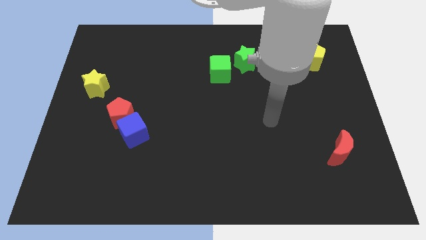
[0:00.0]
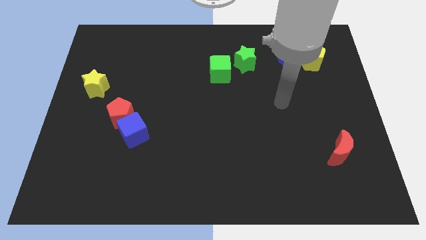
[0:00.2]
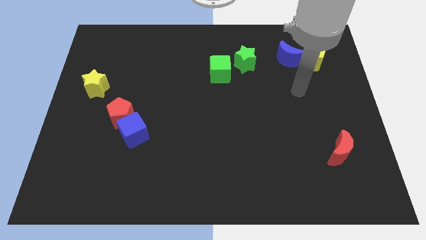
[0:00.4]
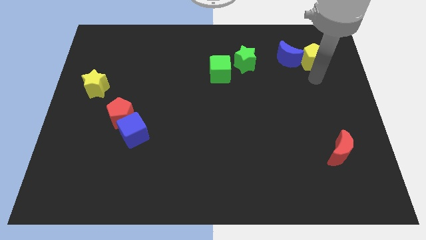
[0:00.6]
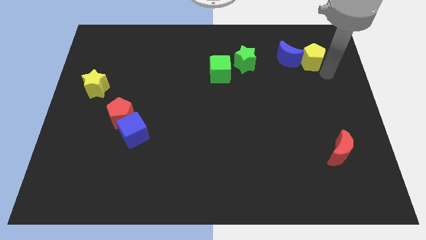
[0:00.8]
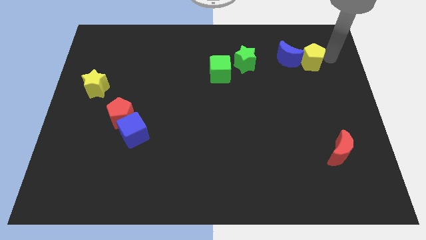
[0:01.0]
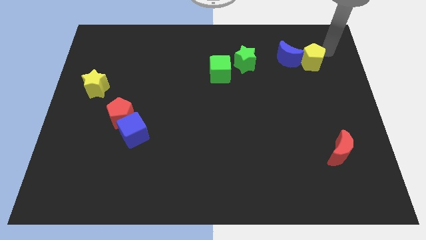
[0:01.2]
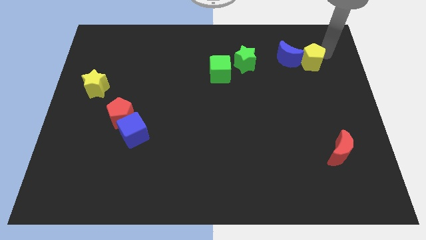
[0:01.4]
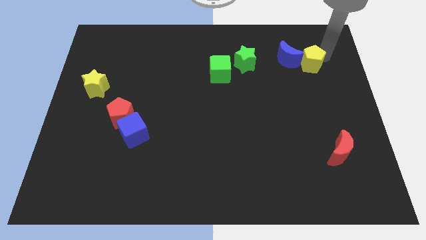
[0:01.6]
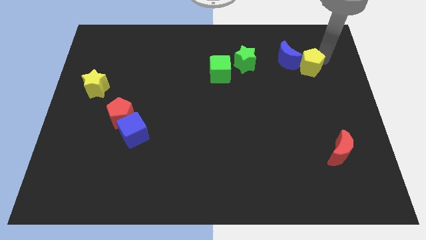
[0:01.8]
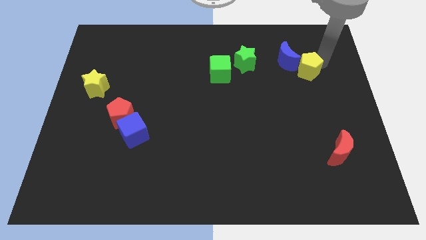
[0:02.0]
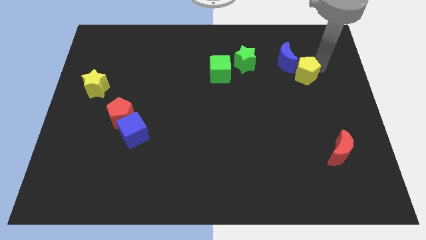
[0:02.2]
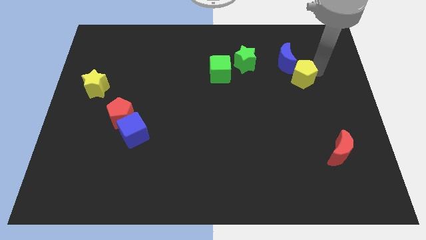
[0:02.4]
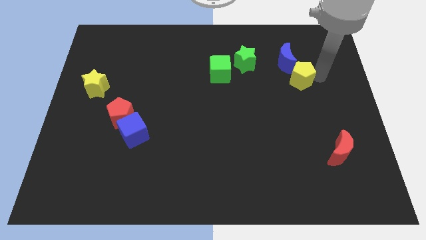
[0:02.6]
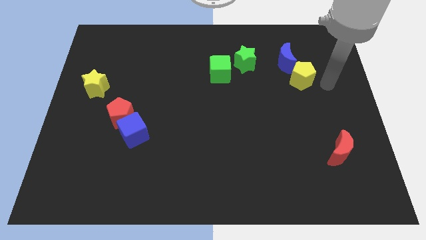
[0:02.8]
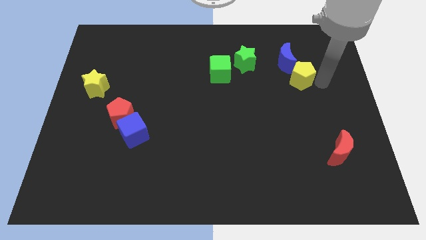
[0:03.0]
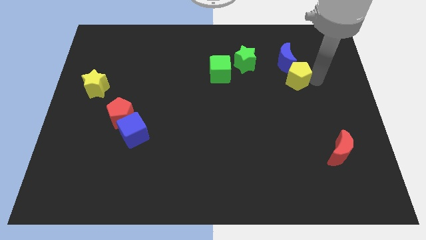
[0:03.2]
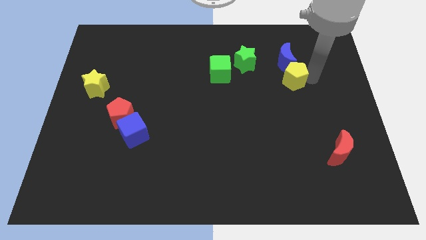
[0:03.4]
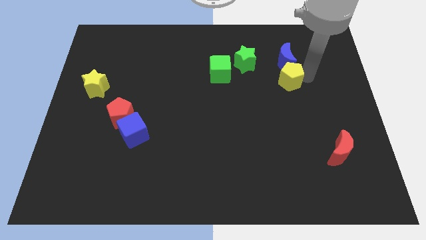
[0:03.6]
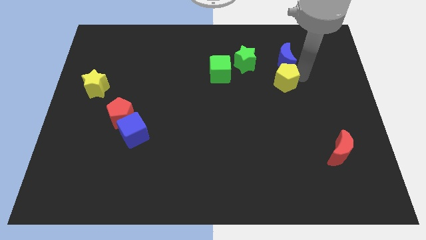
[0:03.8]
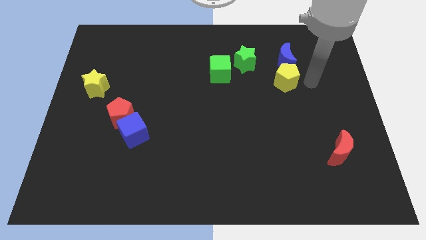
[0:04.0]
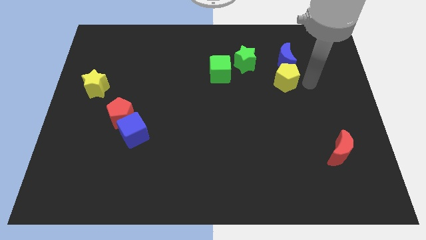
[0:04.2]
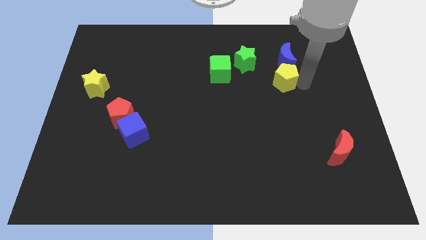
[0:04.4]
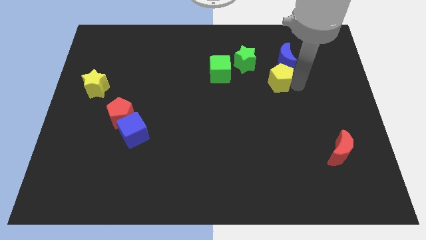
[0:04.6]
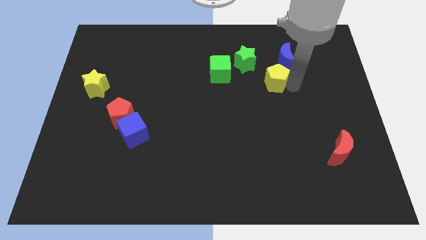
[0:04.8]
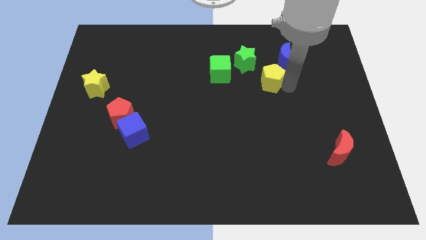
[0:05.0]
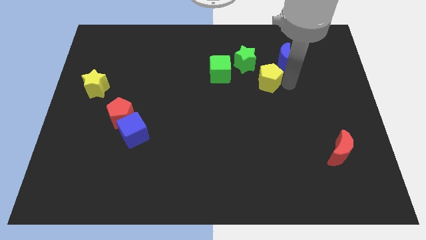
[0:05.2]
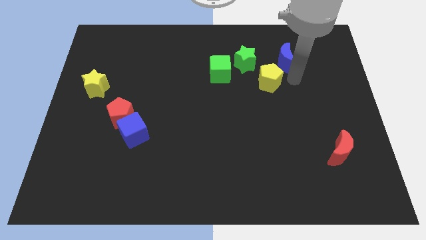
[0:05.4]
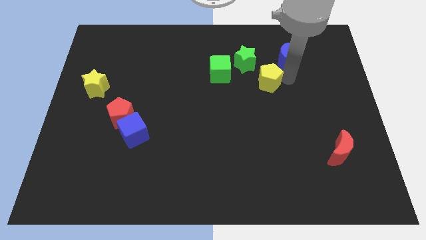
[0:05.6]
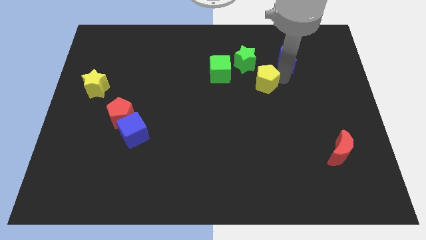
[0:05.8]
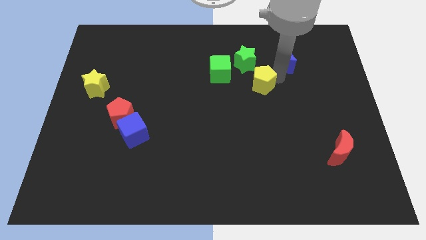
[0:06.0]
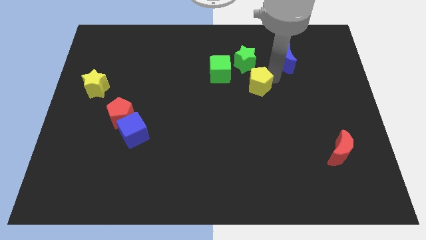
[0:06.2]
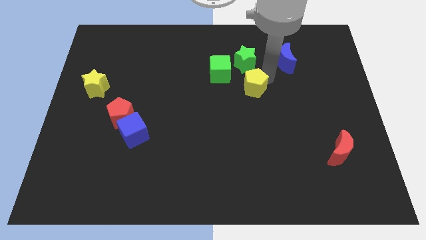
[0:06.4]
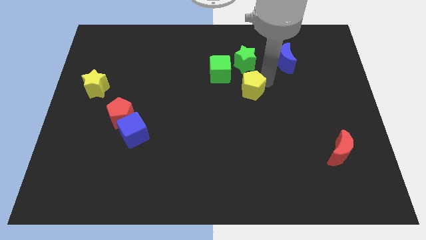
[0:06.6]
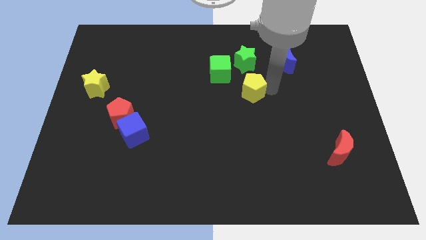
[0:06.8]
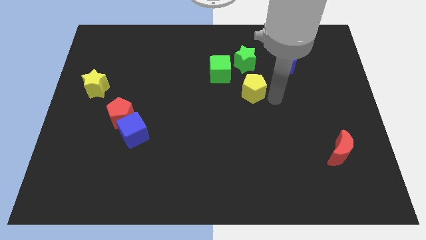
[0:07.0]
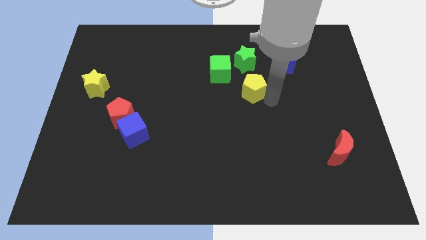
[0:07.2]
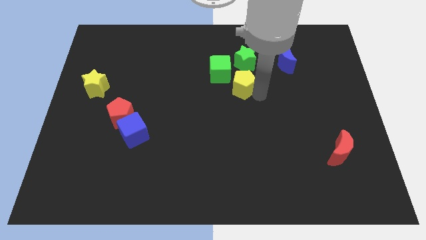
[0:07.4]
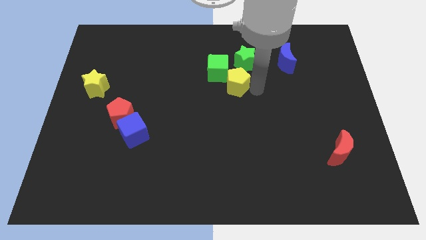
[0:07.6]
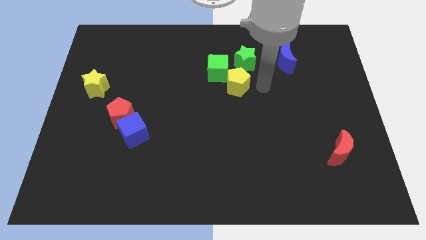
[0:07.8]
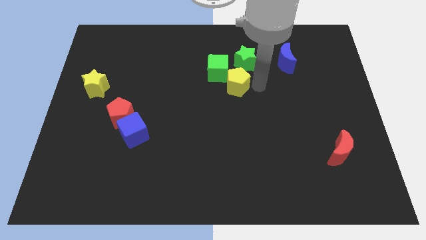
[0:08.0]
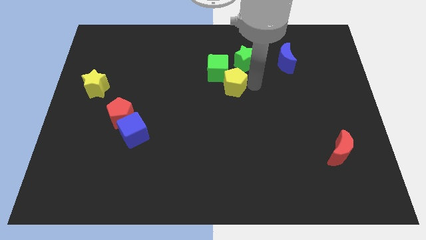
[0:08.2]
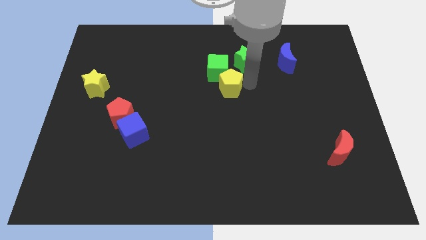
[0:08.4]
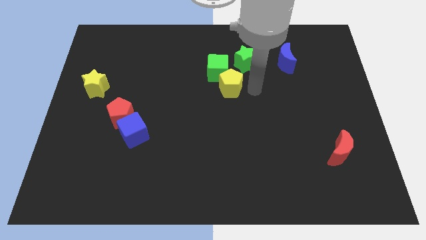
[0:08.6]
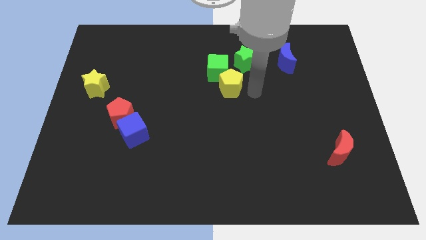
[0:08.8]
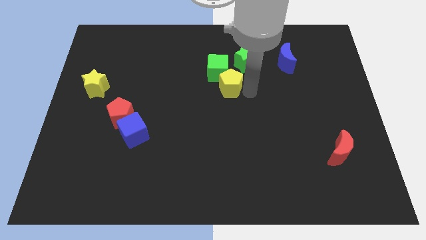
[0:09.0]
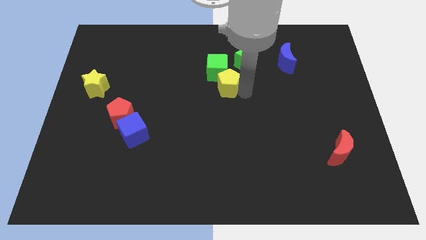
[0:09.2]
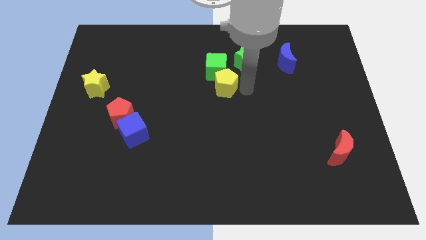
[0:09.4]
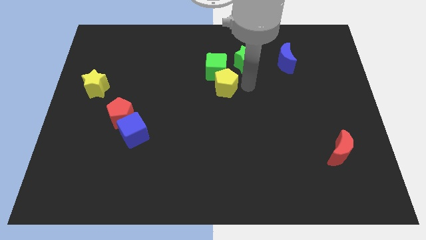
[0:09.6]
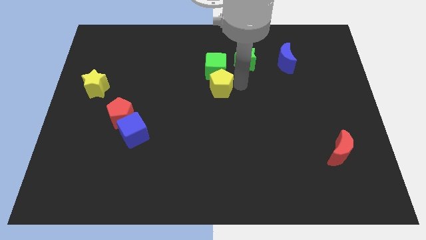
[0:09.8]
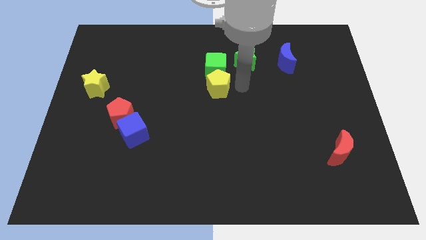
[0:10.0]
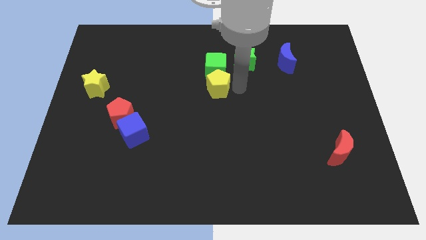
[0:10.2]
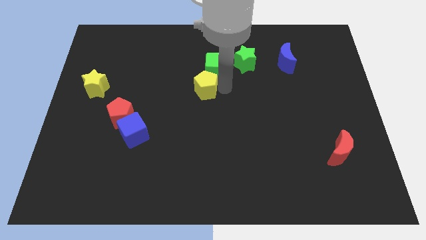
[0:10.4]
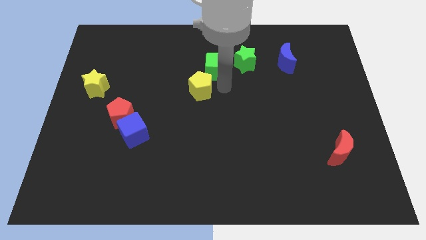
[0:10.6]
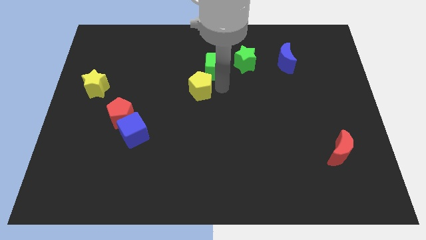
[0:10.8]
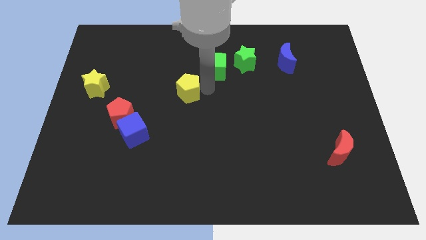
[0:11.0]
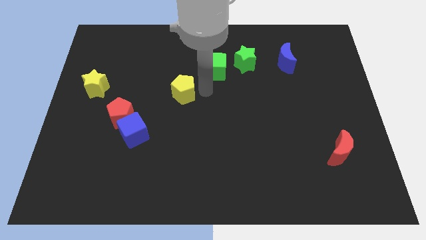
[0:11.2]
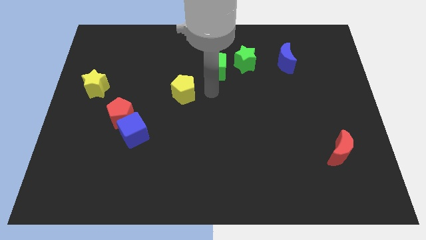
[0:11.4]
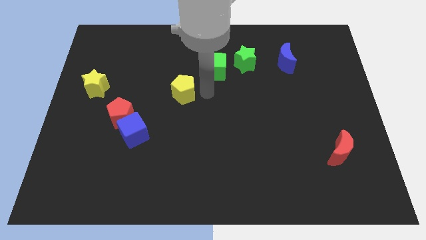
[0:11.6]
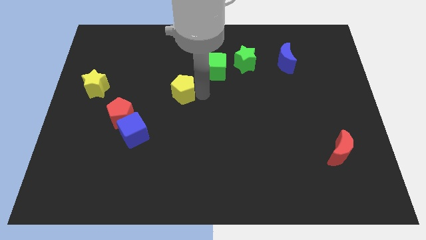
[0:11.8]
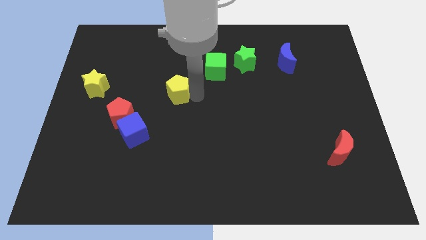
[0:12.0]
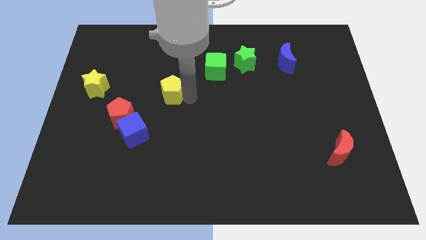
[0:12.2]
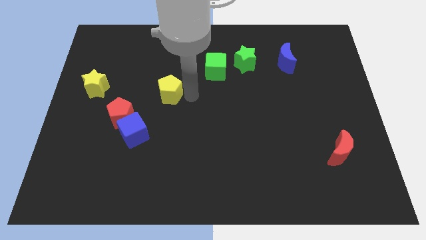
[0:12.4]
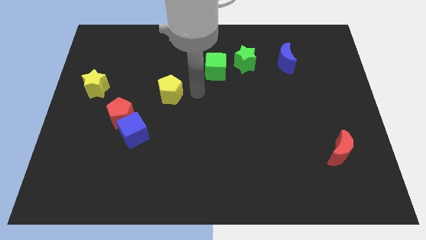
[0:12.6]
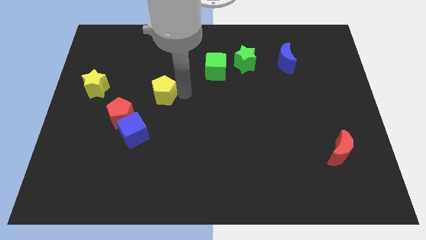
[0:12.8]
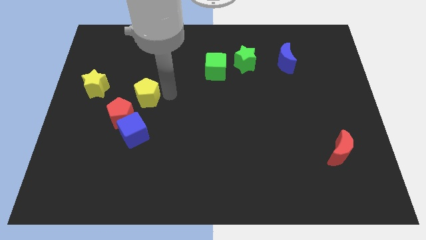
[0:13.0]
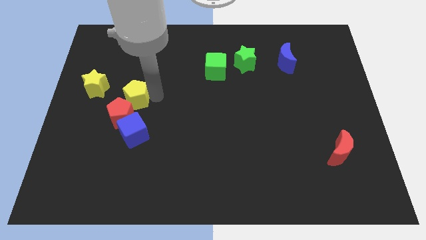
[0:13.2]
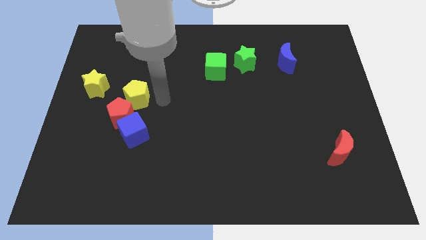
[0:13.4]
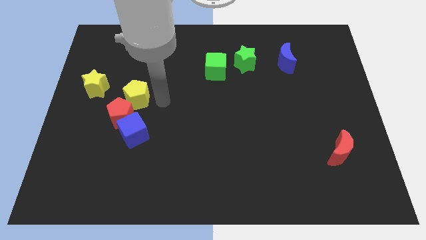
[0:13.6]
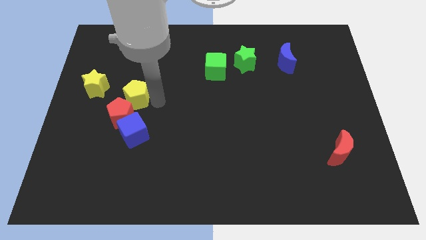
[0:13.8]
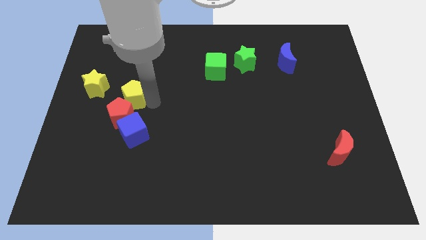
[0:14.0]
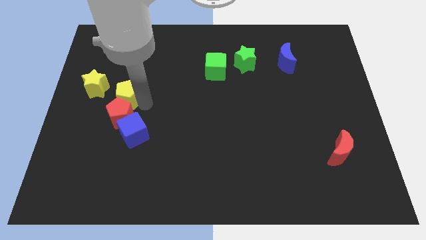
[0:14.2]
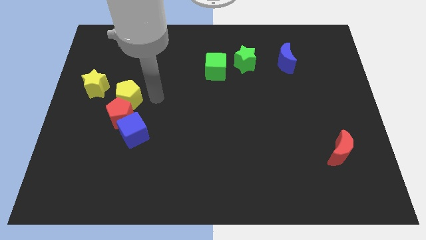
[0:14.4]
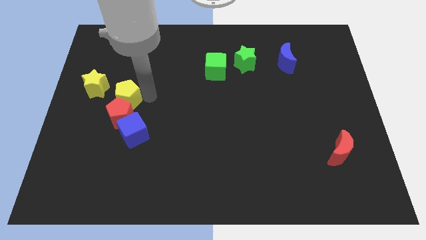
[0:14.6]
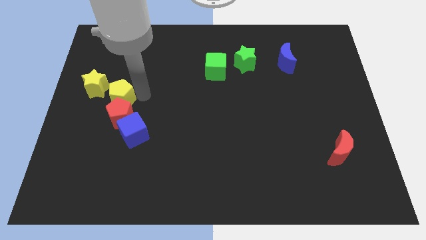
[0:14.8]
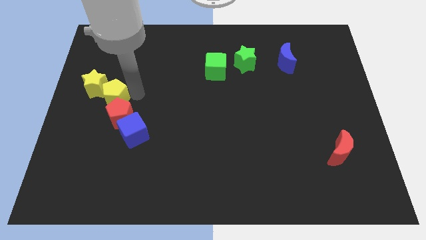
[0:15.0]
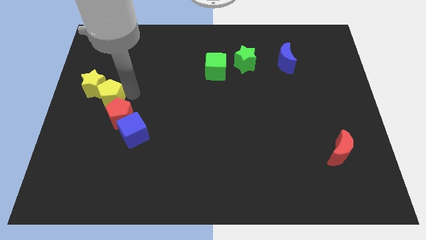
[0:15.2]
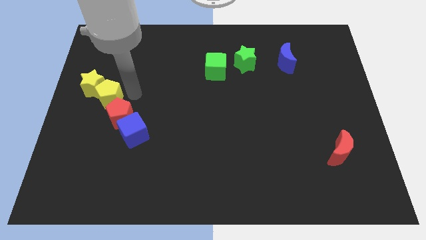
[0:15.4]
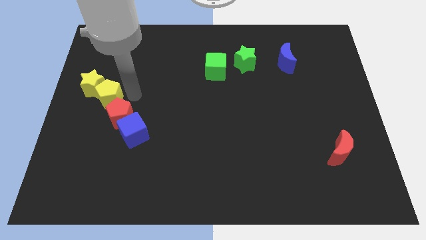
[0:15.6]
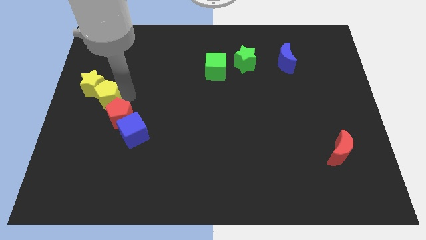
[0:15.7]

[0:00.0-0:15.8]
move the yellow pentagon to the left side
